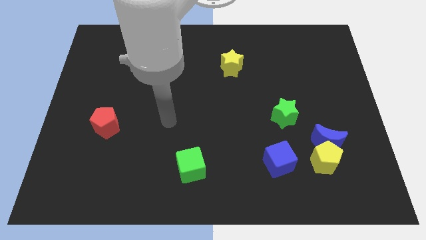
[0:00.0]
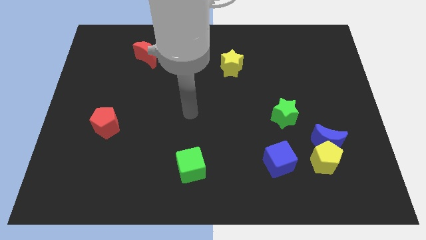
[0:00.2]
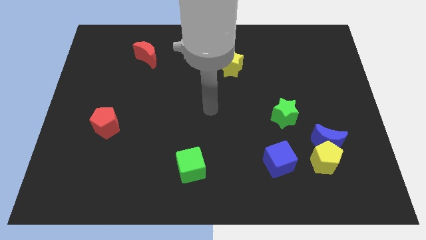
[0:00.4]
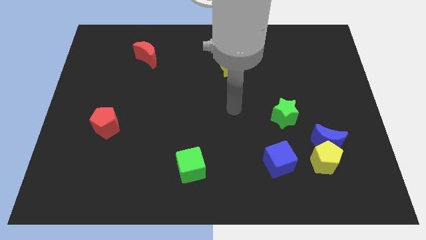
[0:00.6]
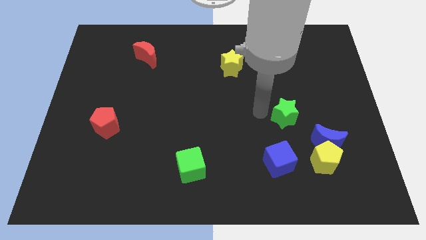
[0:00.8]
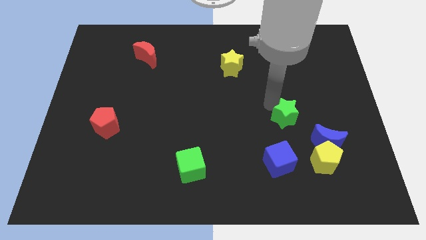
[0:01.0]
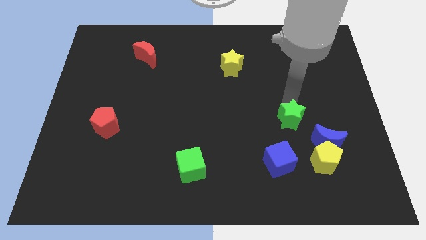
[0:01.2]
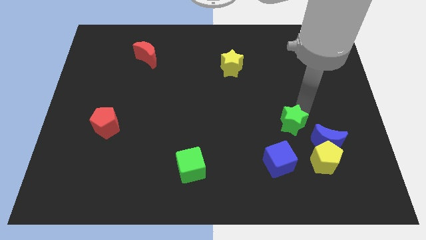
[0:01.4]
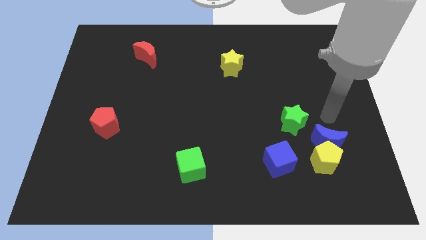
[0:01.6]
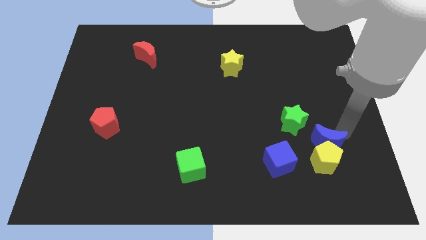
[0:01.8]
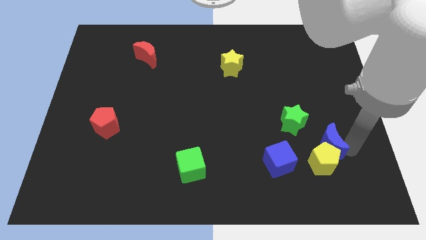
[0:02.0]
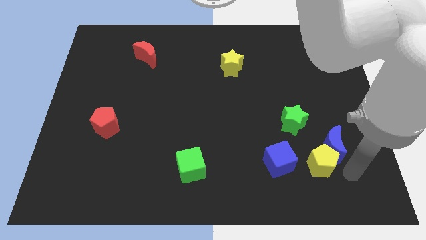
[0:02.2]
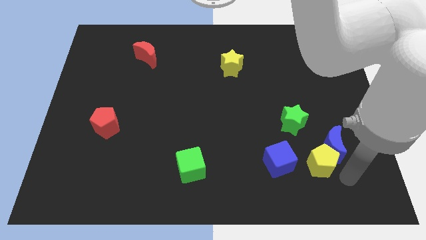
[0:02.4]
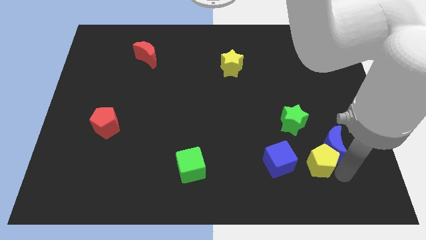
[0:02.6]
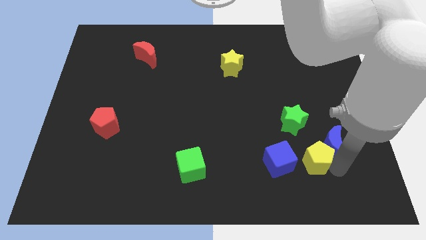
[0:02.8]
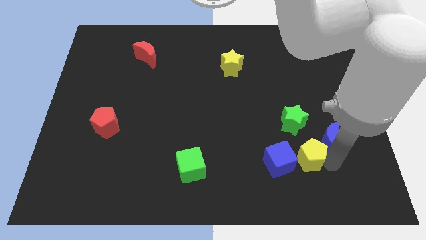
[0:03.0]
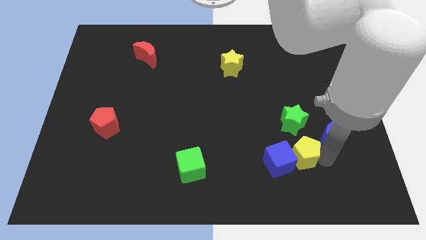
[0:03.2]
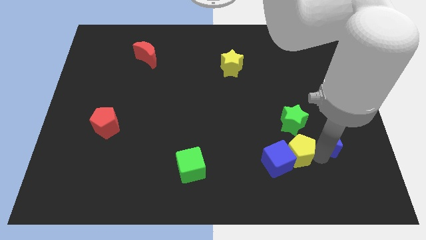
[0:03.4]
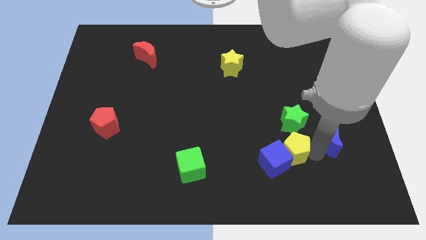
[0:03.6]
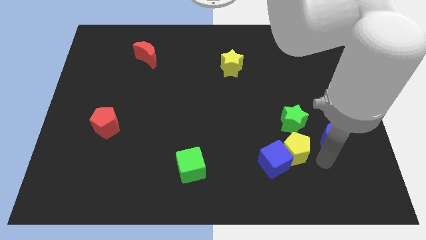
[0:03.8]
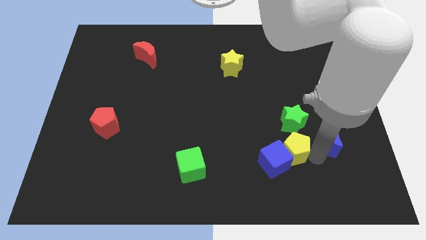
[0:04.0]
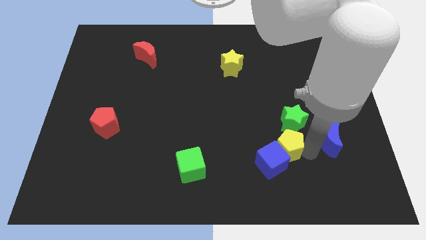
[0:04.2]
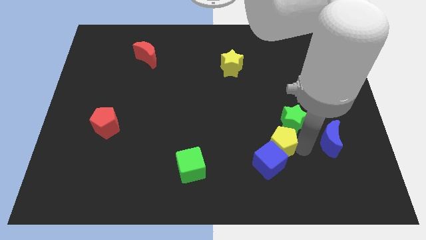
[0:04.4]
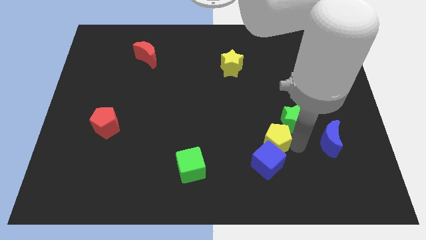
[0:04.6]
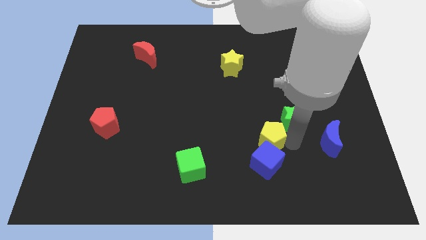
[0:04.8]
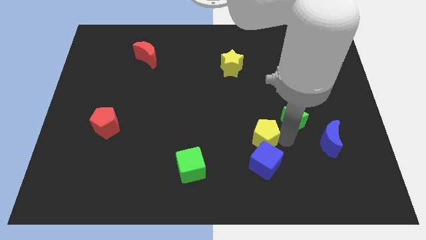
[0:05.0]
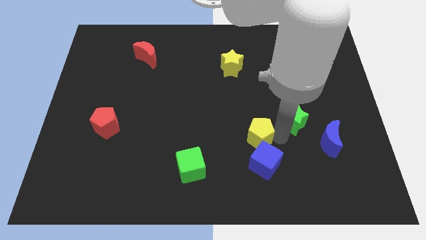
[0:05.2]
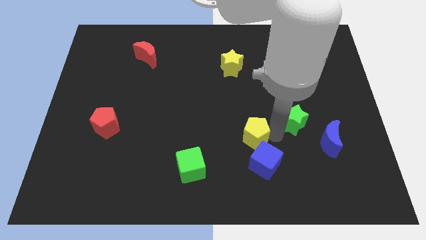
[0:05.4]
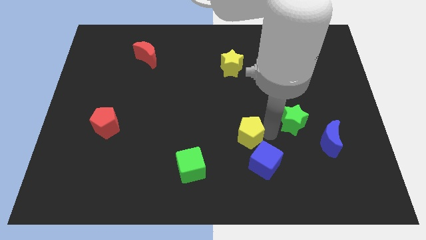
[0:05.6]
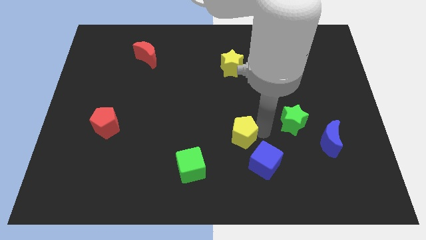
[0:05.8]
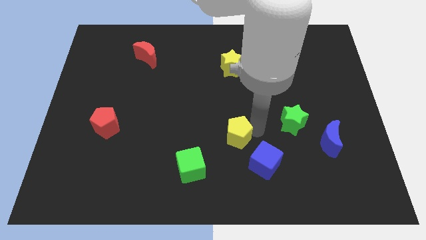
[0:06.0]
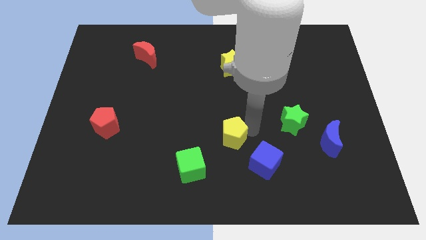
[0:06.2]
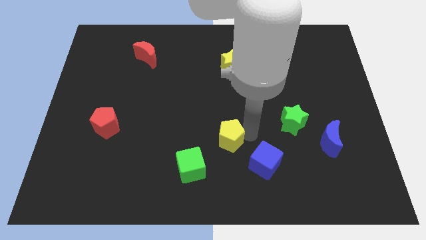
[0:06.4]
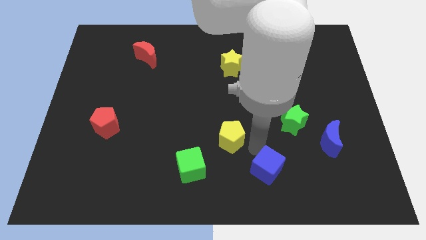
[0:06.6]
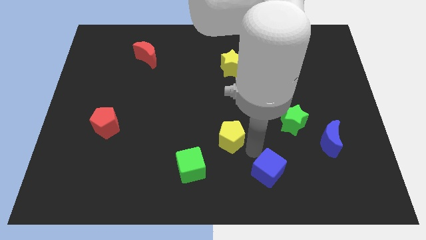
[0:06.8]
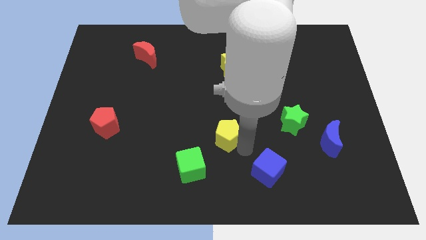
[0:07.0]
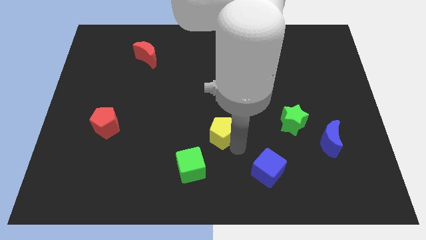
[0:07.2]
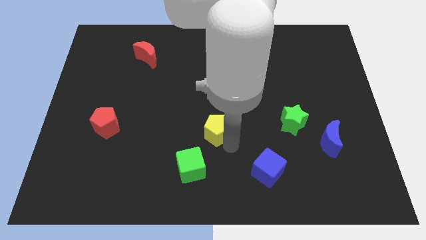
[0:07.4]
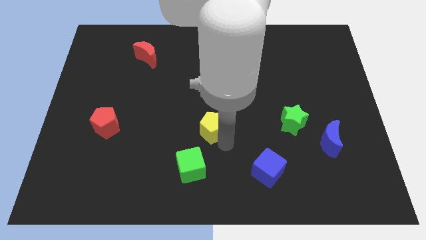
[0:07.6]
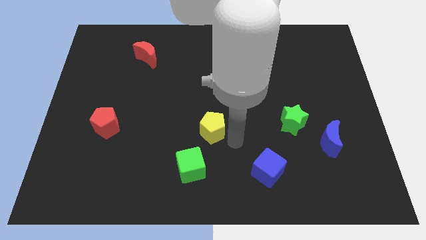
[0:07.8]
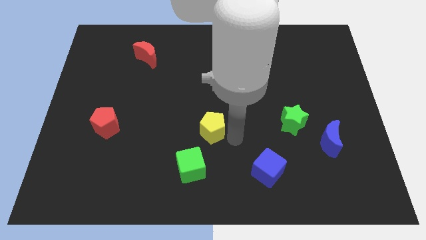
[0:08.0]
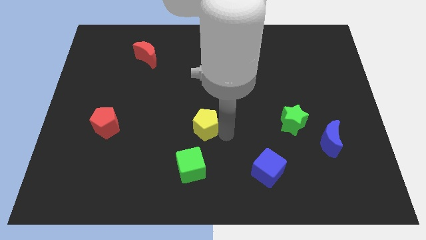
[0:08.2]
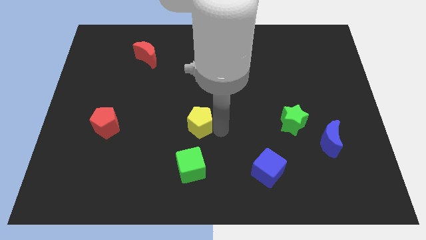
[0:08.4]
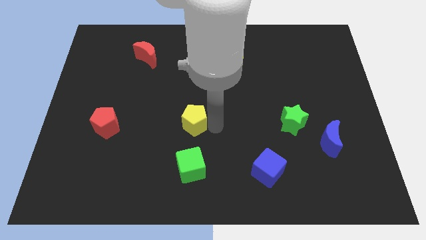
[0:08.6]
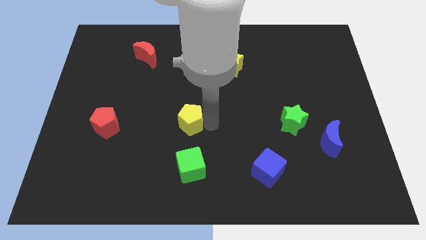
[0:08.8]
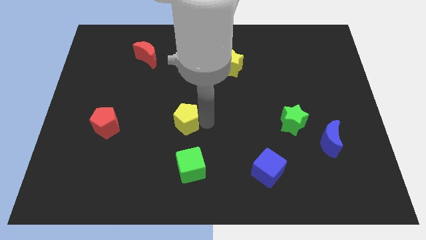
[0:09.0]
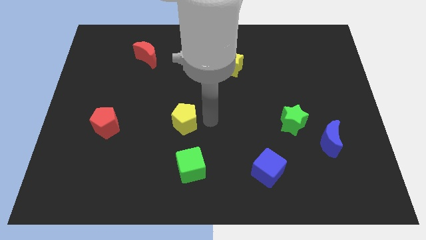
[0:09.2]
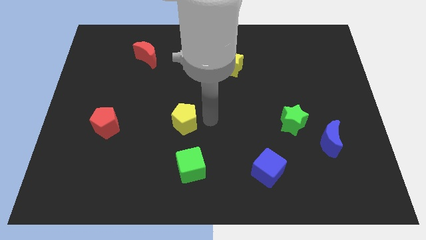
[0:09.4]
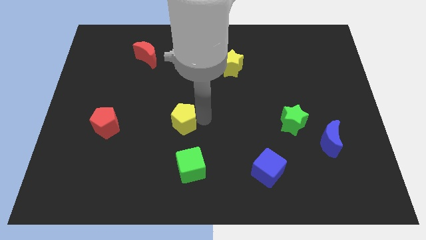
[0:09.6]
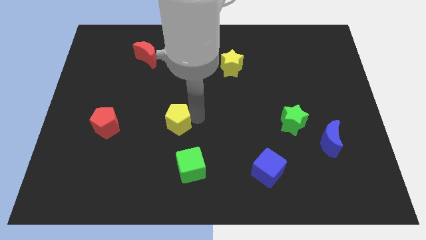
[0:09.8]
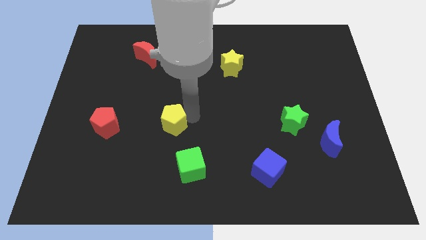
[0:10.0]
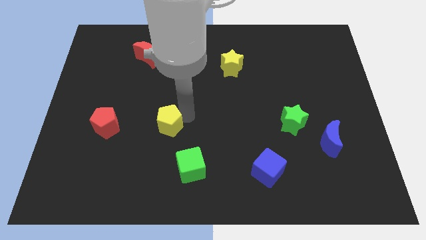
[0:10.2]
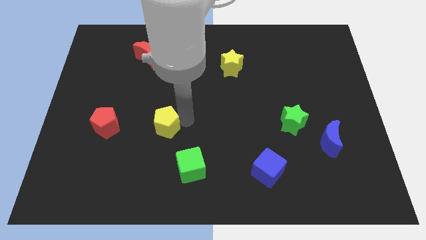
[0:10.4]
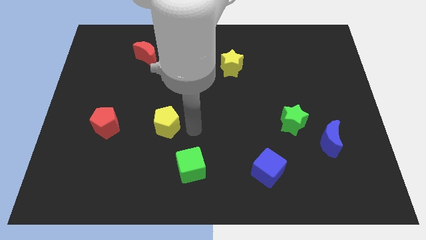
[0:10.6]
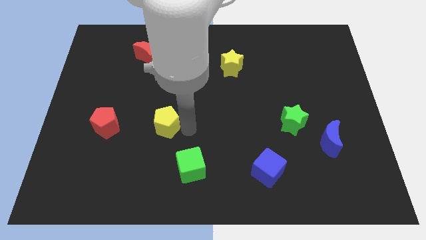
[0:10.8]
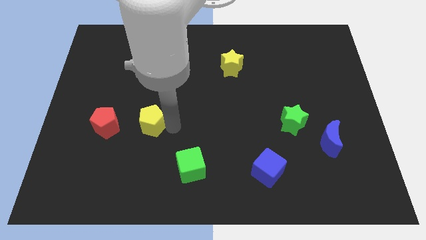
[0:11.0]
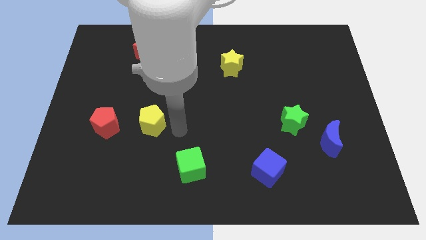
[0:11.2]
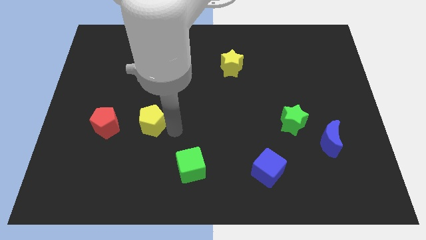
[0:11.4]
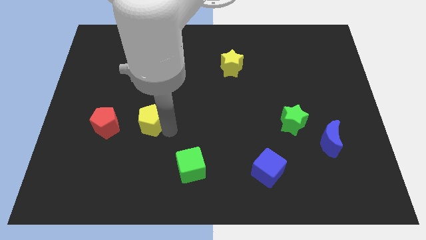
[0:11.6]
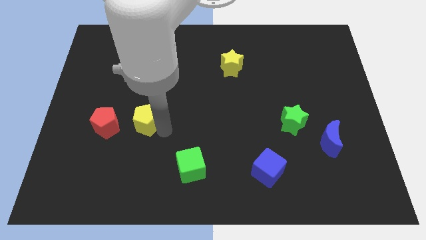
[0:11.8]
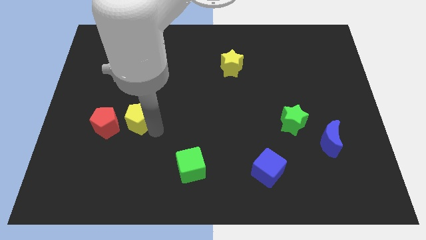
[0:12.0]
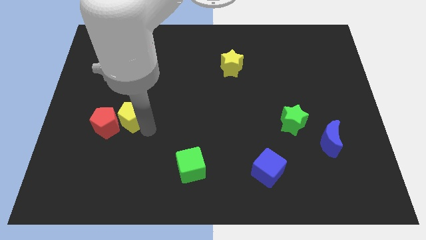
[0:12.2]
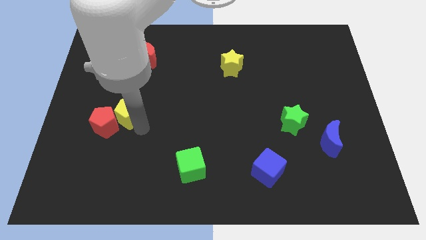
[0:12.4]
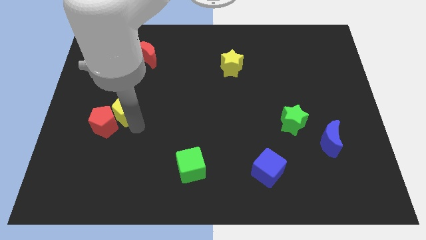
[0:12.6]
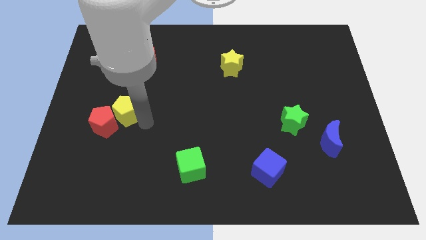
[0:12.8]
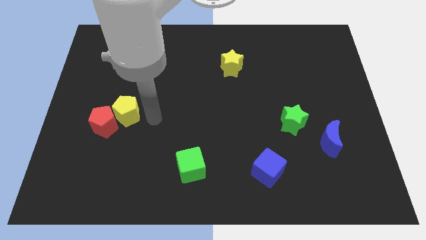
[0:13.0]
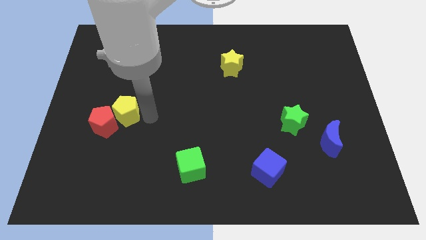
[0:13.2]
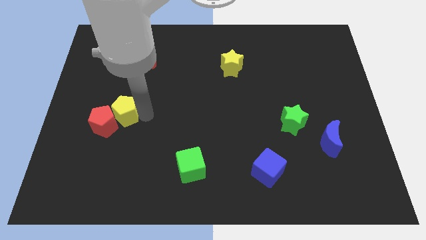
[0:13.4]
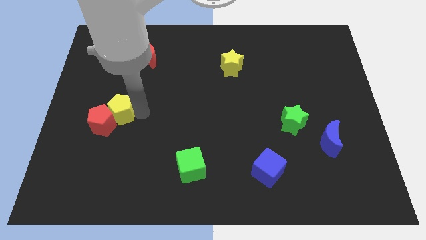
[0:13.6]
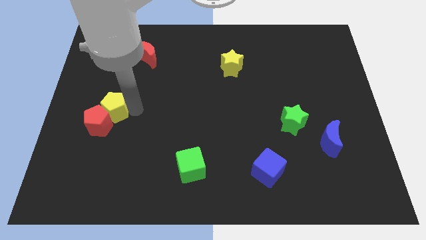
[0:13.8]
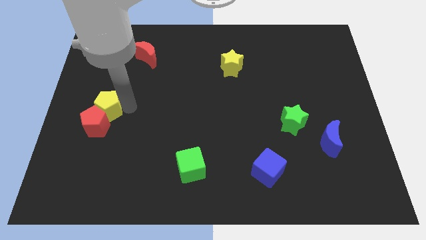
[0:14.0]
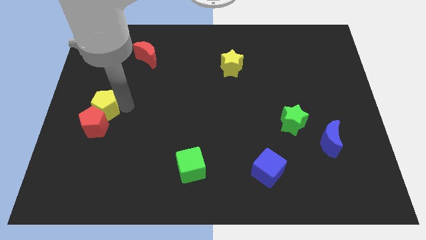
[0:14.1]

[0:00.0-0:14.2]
put the yellow pentagon to the left side of the board
